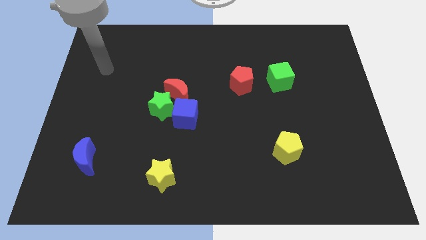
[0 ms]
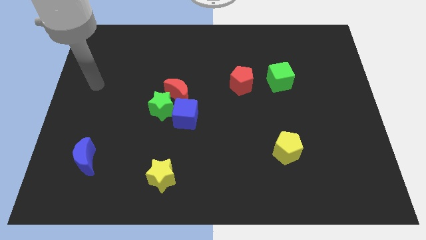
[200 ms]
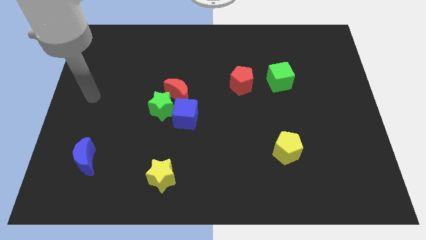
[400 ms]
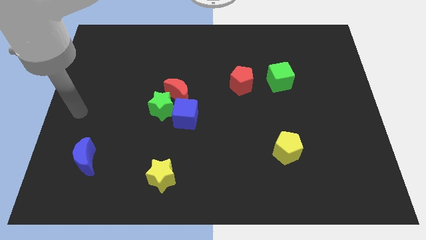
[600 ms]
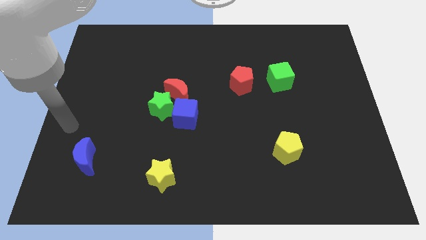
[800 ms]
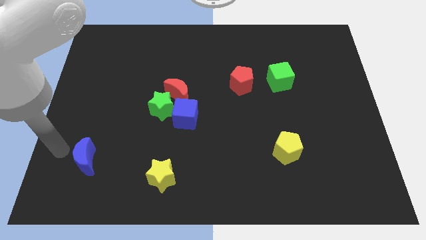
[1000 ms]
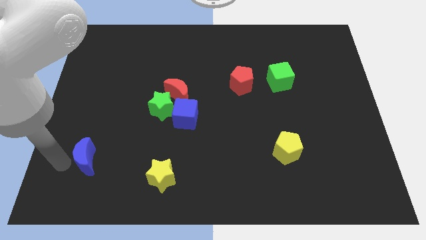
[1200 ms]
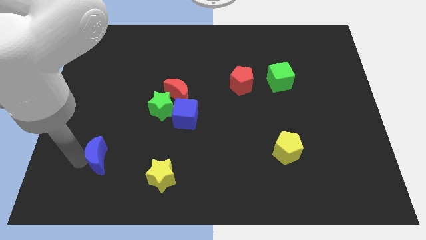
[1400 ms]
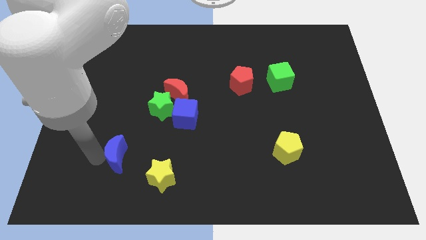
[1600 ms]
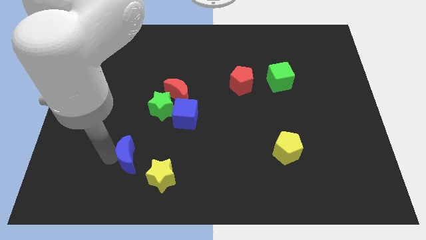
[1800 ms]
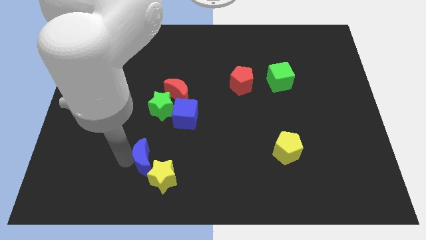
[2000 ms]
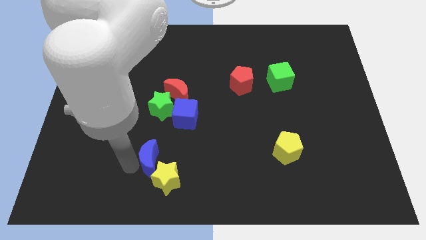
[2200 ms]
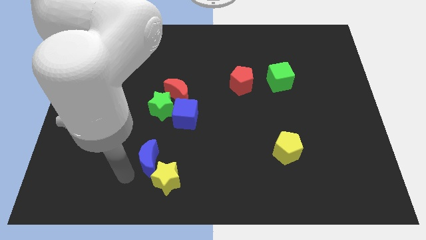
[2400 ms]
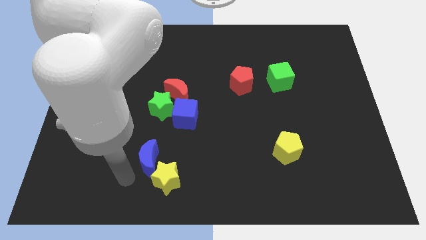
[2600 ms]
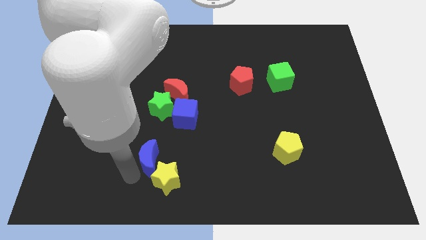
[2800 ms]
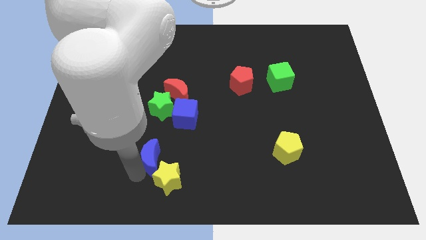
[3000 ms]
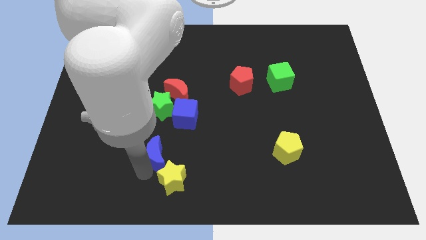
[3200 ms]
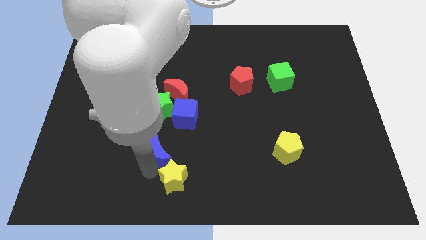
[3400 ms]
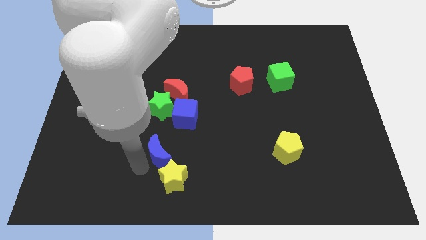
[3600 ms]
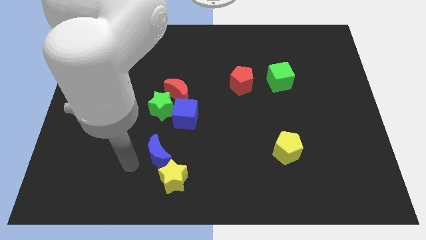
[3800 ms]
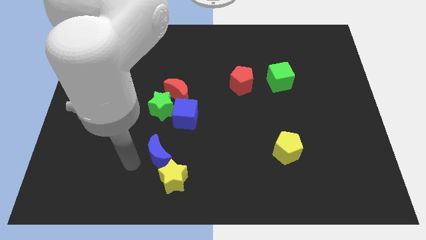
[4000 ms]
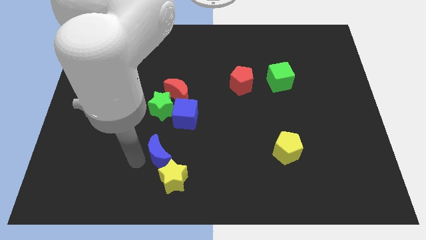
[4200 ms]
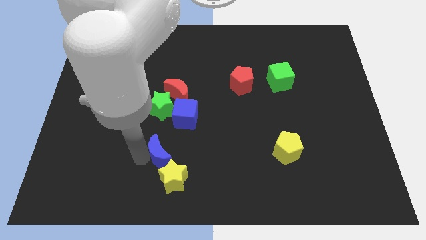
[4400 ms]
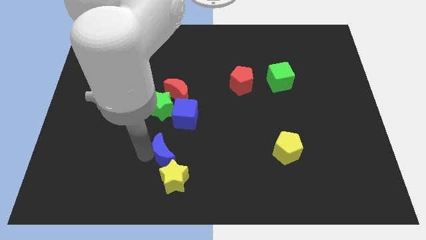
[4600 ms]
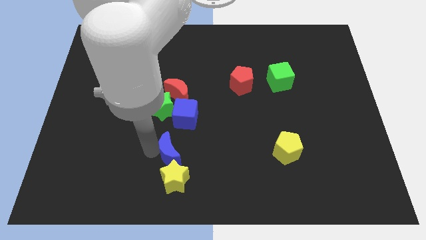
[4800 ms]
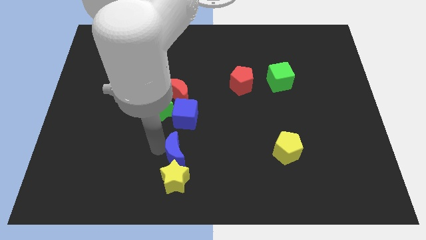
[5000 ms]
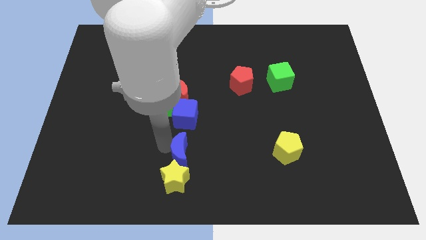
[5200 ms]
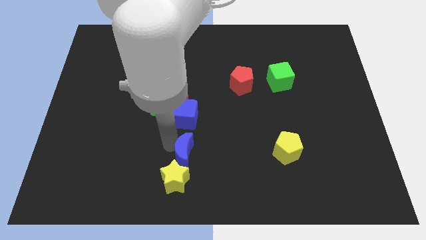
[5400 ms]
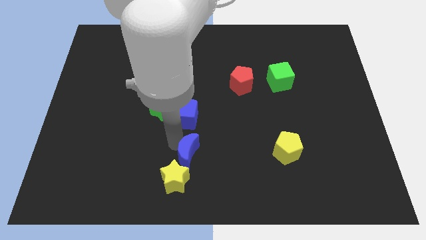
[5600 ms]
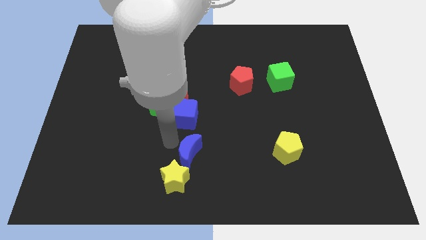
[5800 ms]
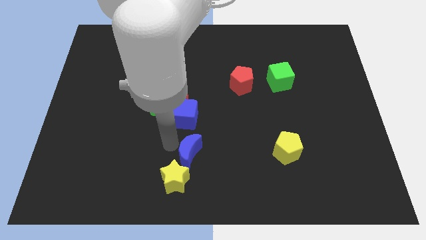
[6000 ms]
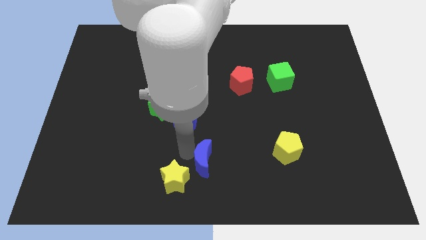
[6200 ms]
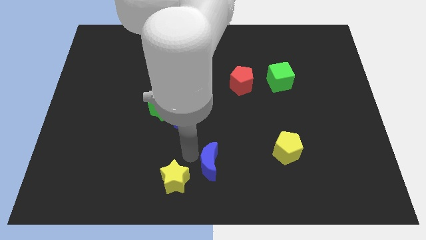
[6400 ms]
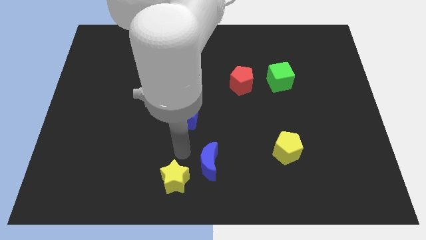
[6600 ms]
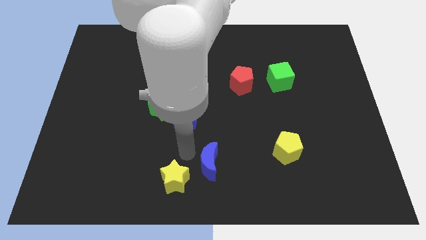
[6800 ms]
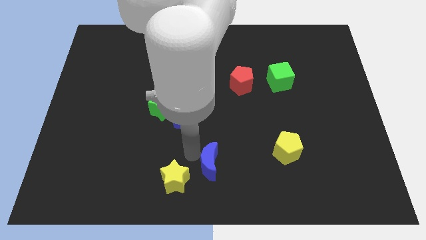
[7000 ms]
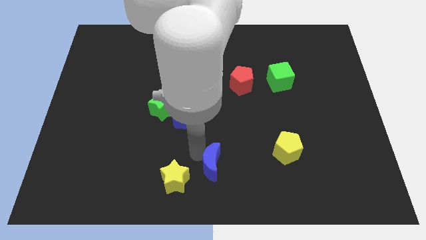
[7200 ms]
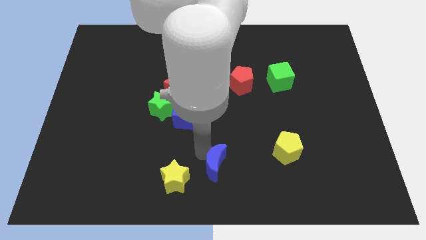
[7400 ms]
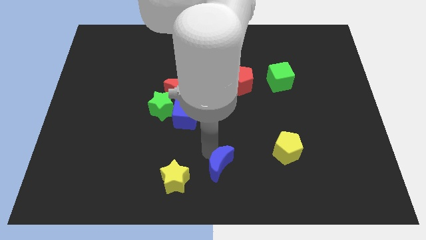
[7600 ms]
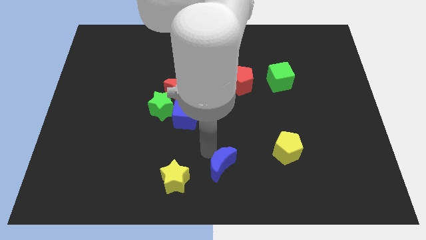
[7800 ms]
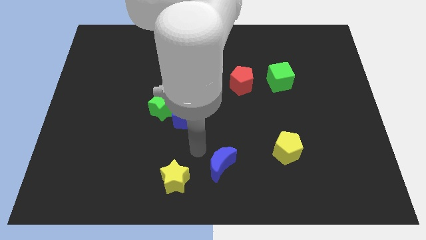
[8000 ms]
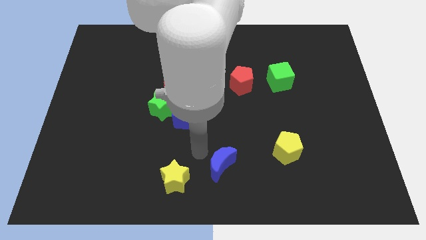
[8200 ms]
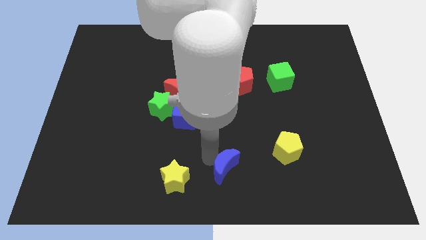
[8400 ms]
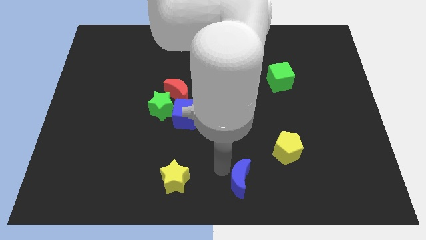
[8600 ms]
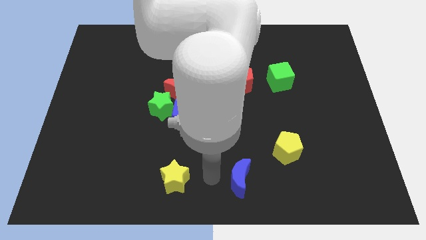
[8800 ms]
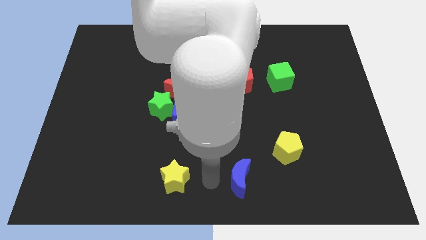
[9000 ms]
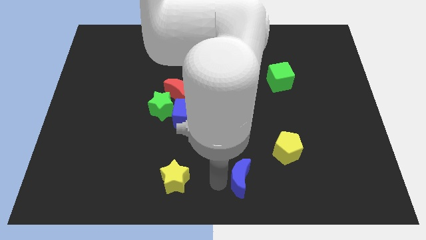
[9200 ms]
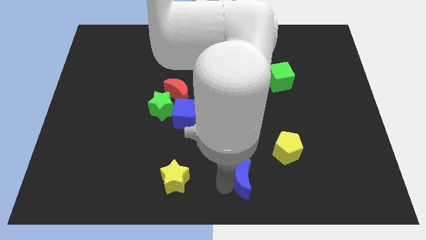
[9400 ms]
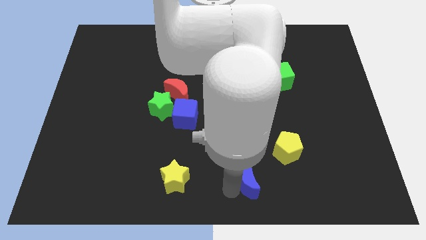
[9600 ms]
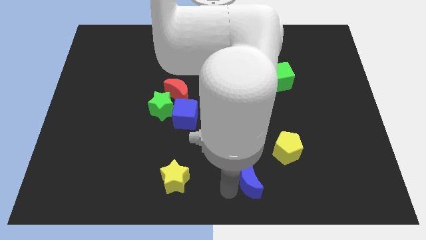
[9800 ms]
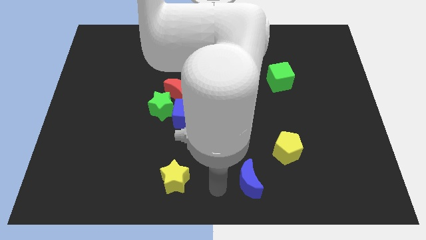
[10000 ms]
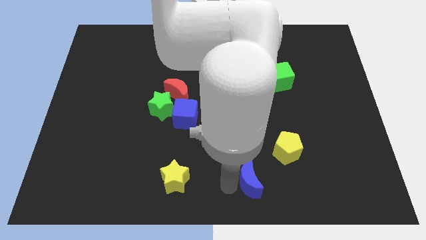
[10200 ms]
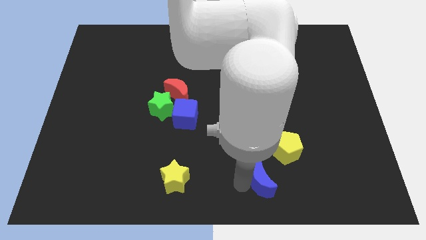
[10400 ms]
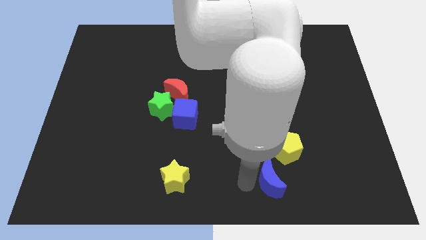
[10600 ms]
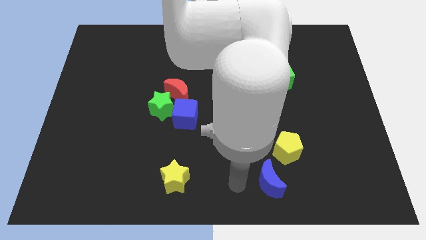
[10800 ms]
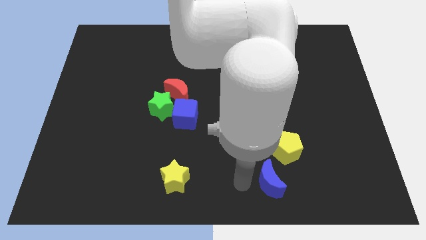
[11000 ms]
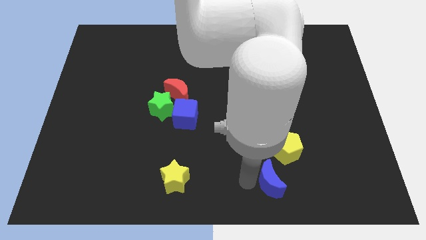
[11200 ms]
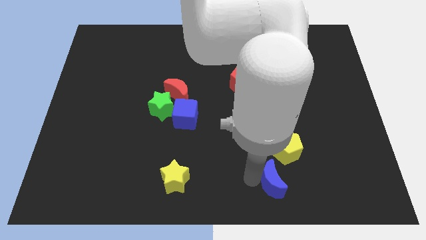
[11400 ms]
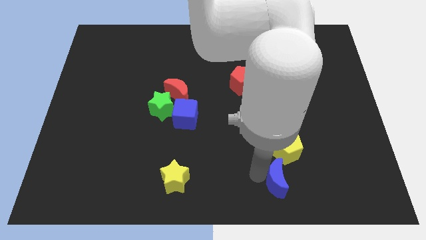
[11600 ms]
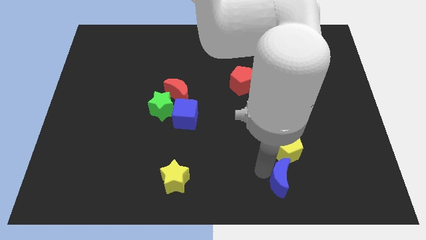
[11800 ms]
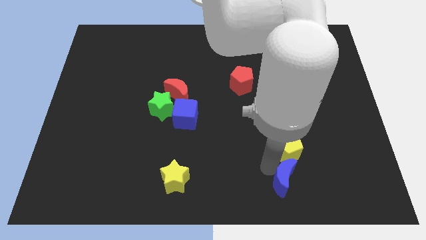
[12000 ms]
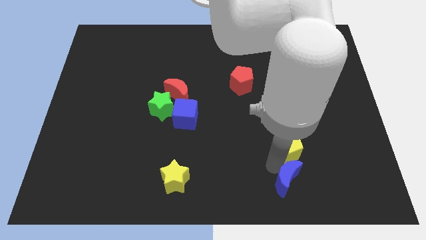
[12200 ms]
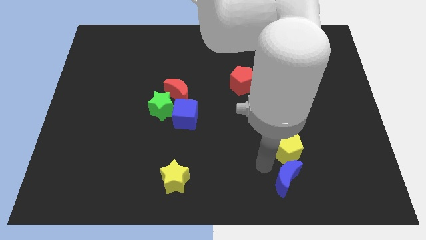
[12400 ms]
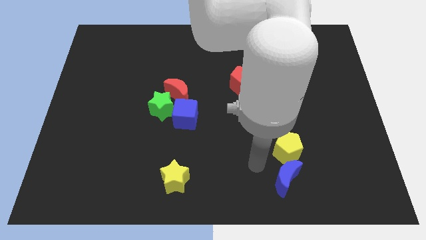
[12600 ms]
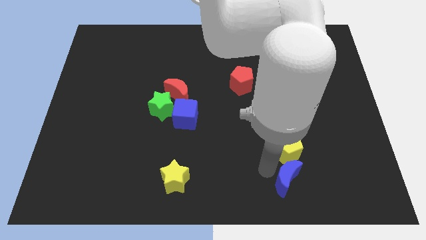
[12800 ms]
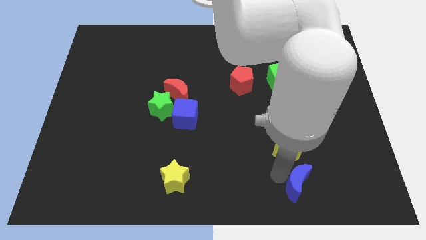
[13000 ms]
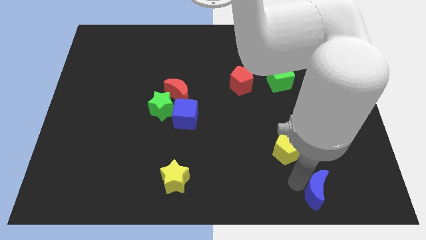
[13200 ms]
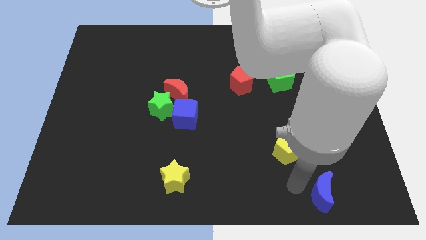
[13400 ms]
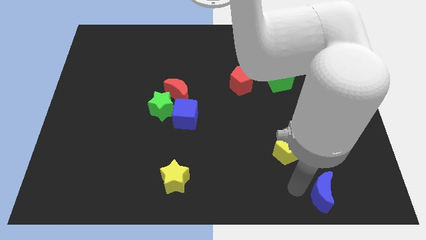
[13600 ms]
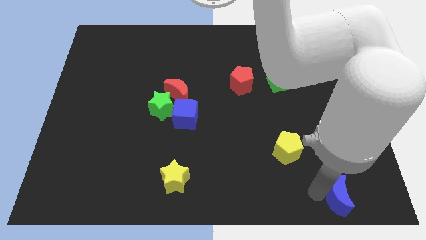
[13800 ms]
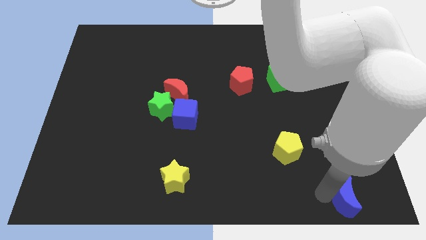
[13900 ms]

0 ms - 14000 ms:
push the blue moon to the lower right corner
